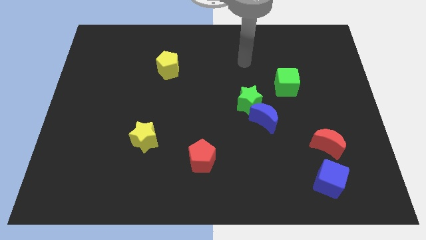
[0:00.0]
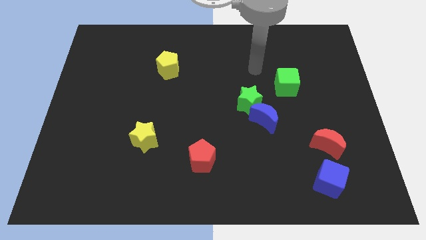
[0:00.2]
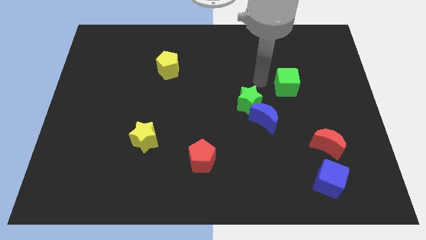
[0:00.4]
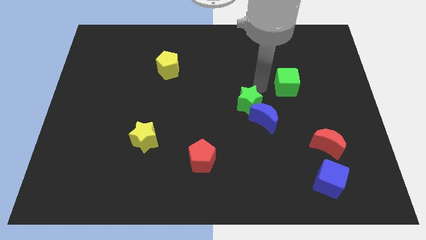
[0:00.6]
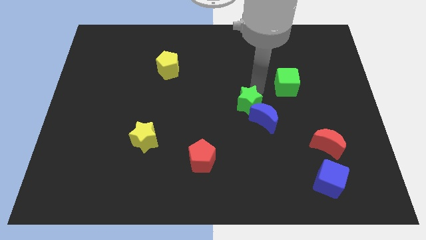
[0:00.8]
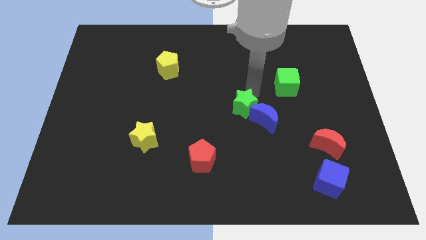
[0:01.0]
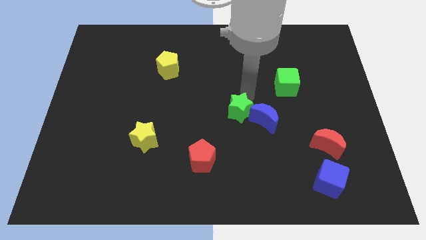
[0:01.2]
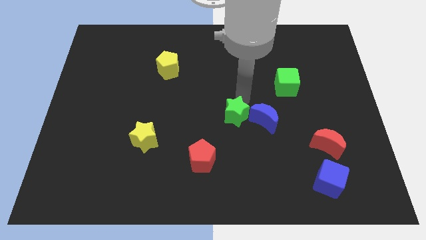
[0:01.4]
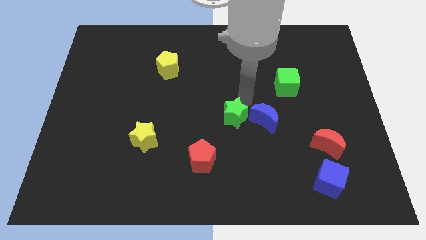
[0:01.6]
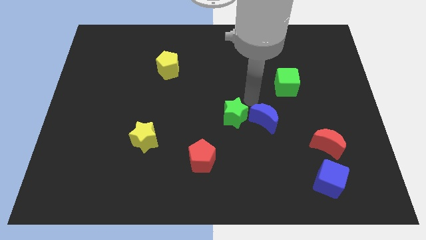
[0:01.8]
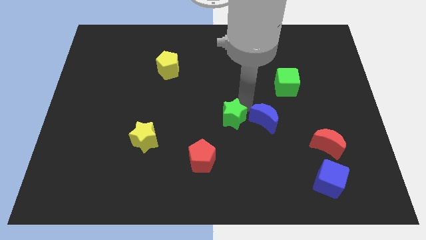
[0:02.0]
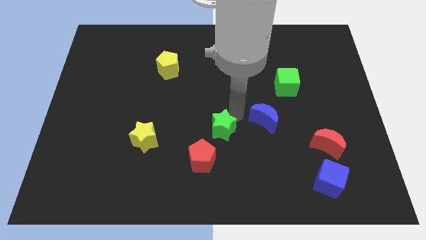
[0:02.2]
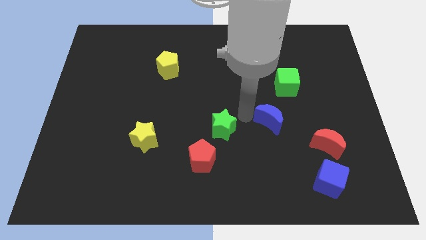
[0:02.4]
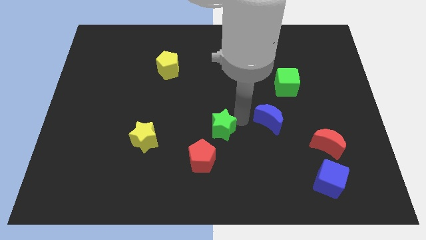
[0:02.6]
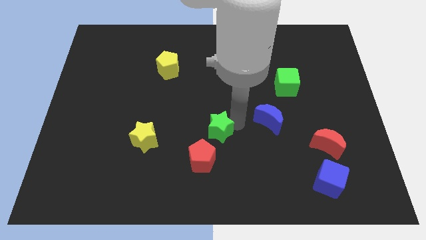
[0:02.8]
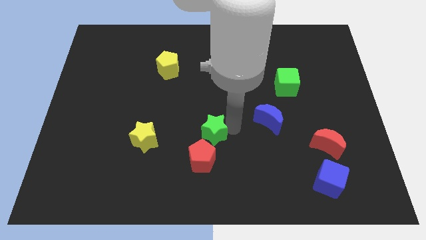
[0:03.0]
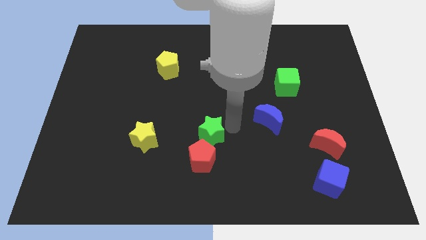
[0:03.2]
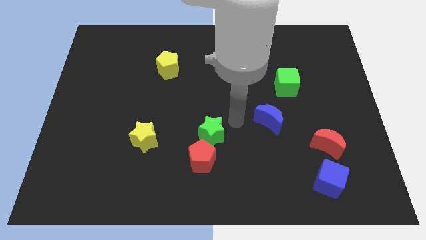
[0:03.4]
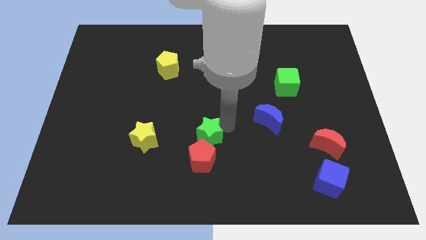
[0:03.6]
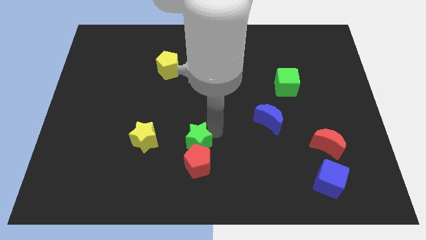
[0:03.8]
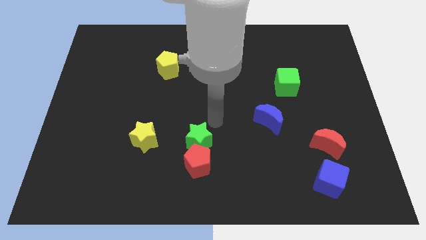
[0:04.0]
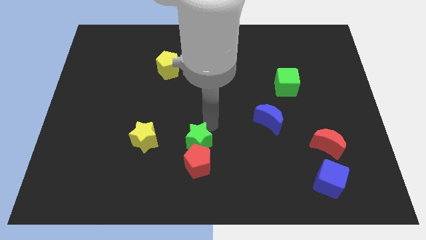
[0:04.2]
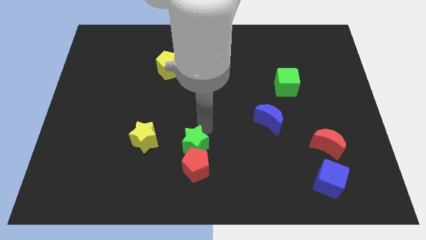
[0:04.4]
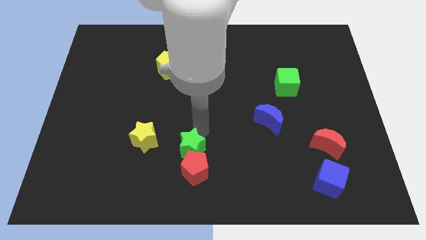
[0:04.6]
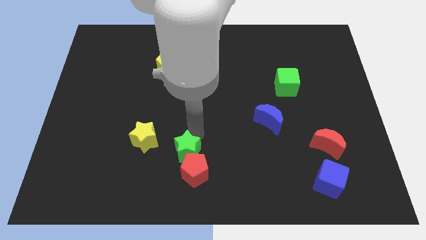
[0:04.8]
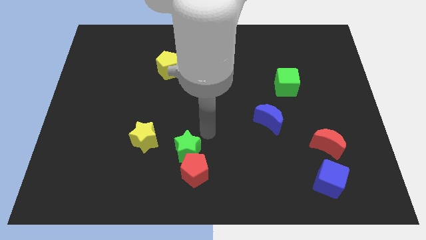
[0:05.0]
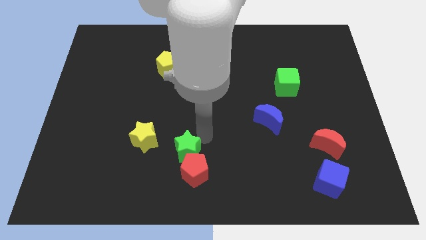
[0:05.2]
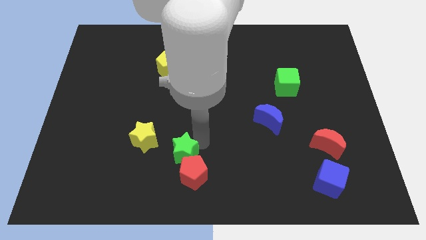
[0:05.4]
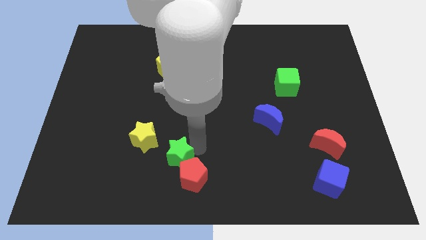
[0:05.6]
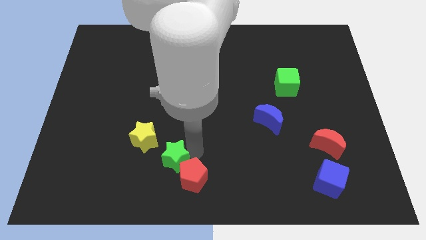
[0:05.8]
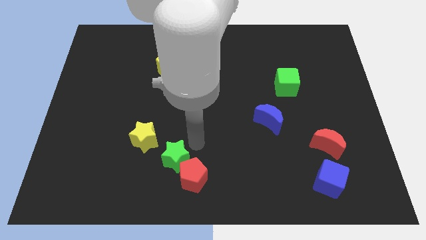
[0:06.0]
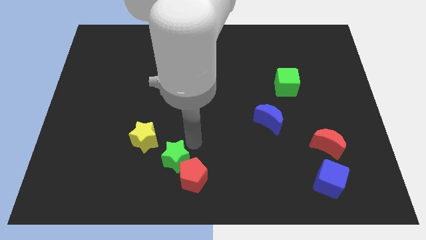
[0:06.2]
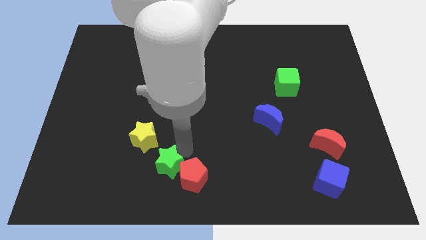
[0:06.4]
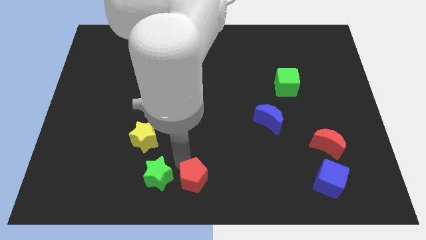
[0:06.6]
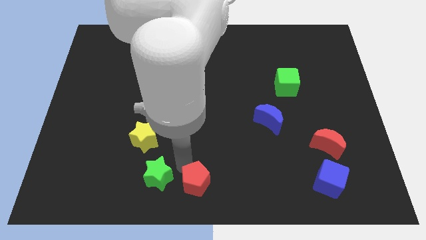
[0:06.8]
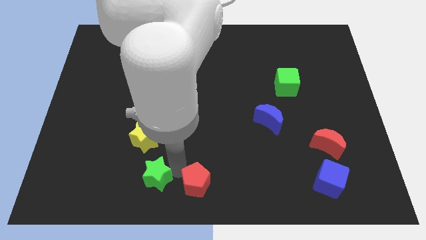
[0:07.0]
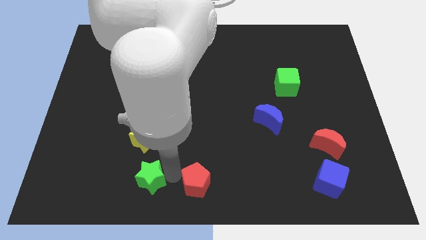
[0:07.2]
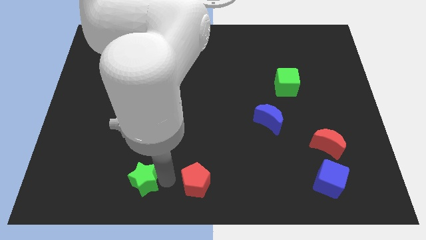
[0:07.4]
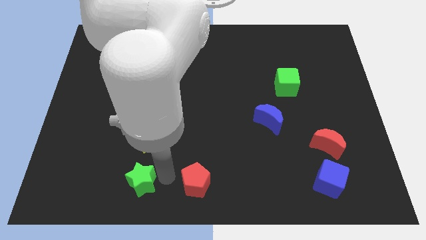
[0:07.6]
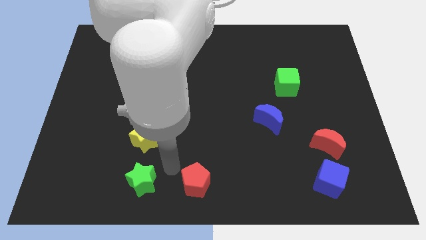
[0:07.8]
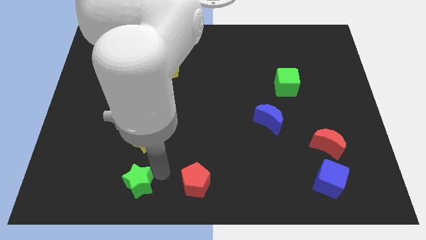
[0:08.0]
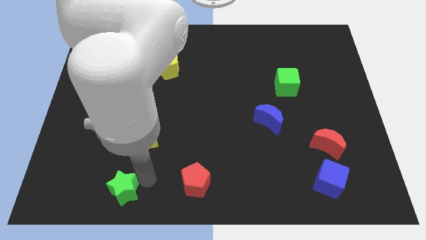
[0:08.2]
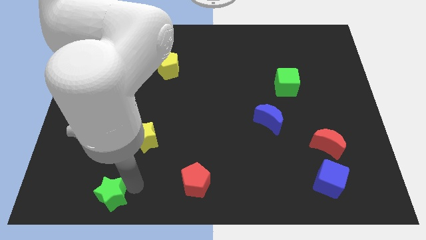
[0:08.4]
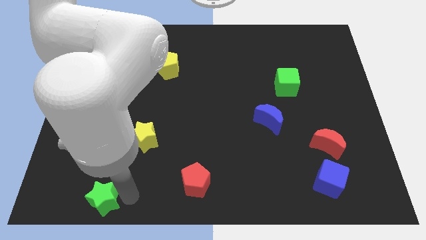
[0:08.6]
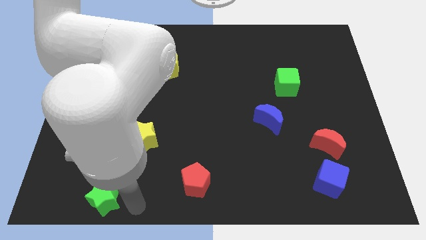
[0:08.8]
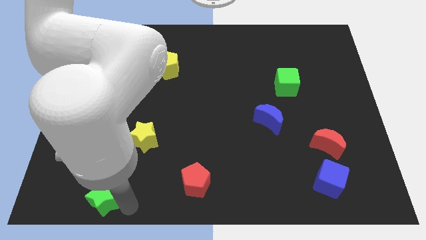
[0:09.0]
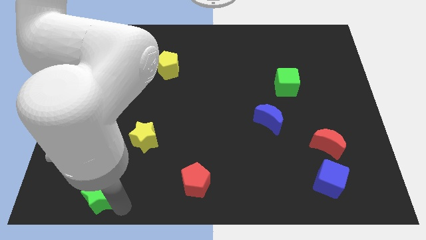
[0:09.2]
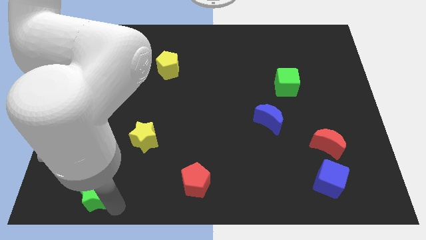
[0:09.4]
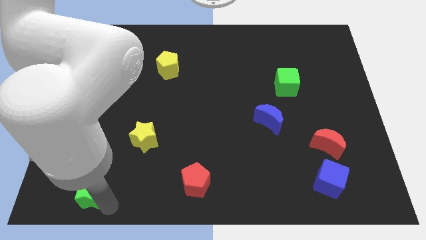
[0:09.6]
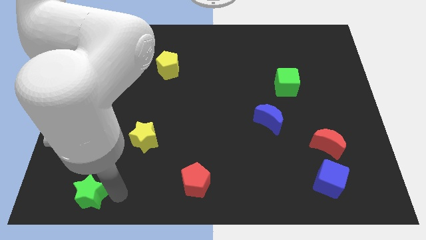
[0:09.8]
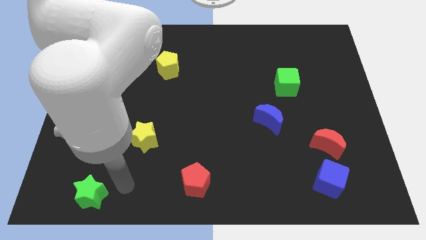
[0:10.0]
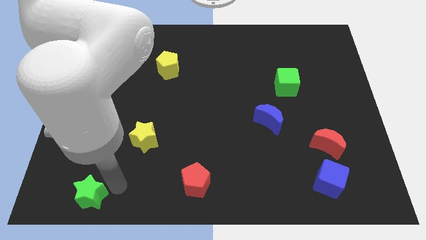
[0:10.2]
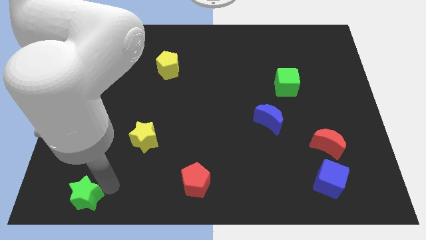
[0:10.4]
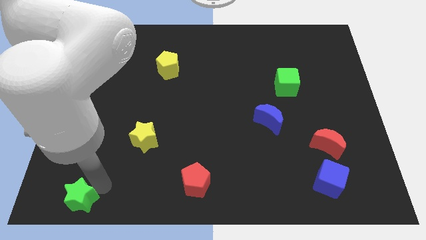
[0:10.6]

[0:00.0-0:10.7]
slide the green star to the bottom left

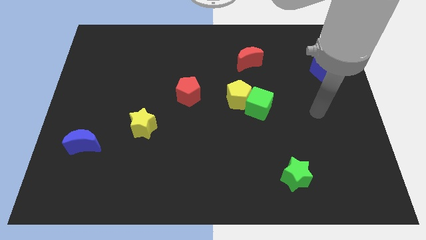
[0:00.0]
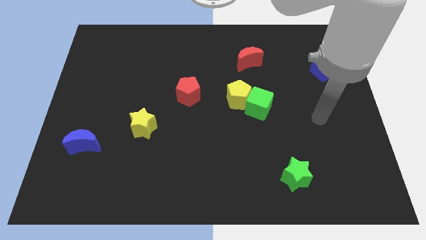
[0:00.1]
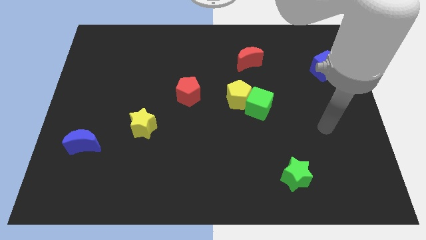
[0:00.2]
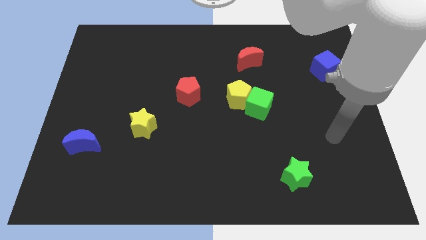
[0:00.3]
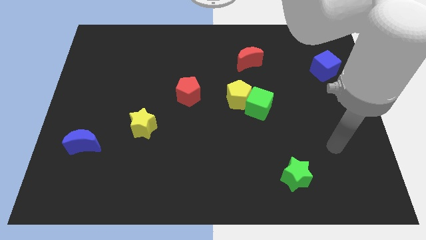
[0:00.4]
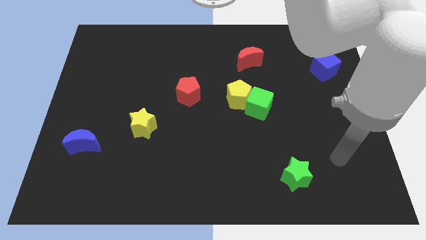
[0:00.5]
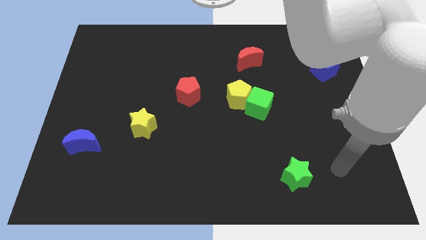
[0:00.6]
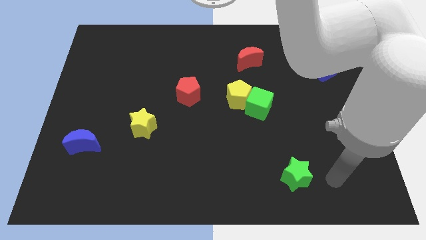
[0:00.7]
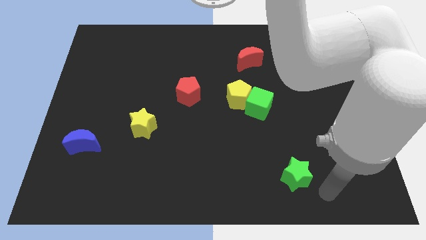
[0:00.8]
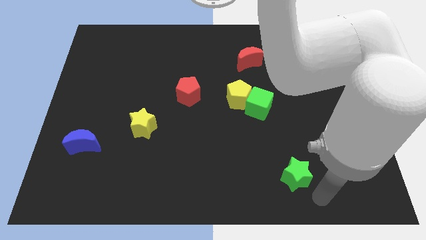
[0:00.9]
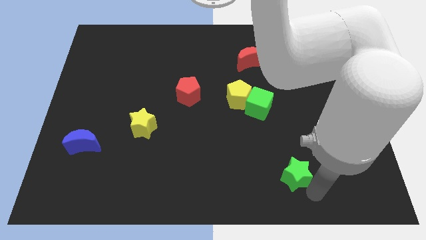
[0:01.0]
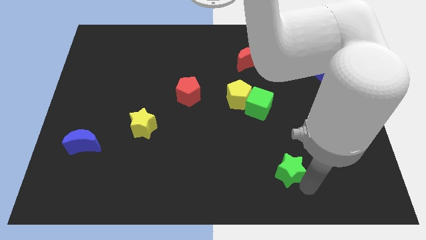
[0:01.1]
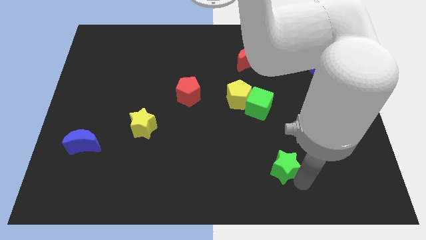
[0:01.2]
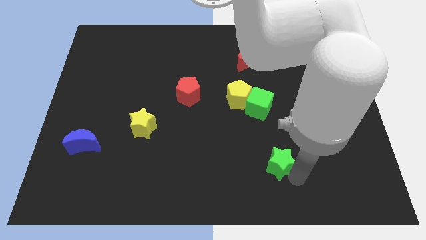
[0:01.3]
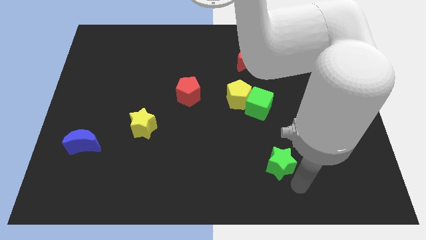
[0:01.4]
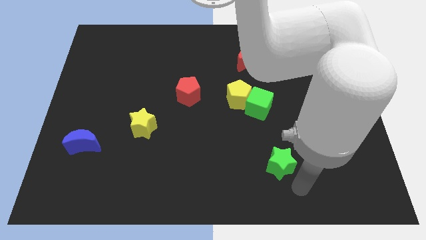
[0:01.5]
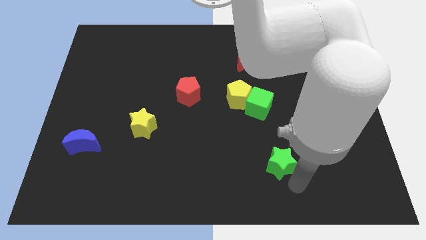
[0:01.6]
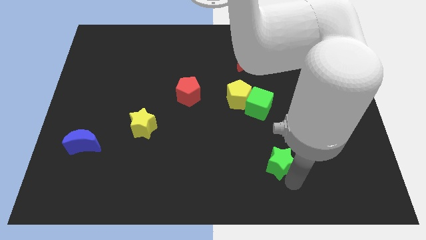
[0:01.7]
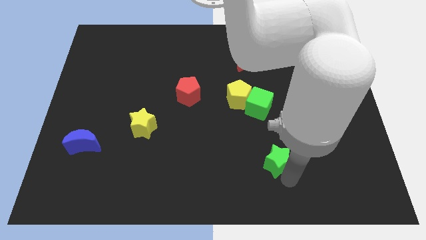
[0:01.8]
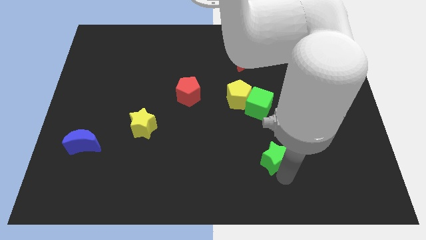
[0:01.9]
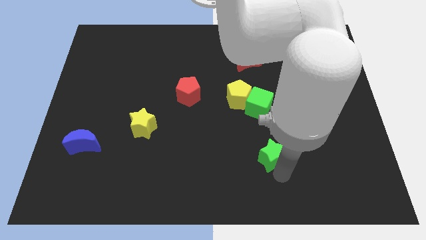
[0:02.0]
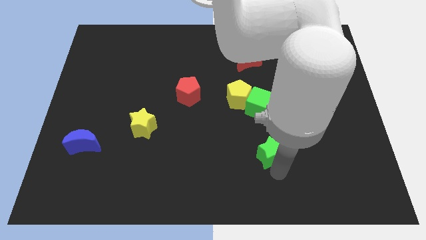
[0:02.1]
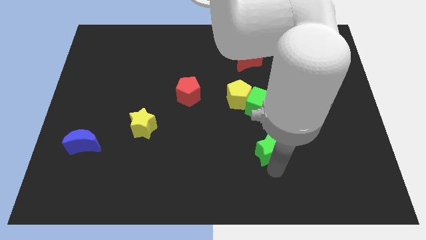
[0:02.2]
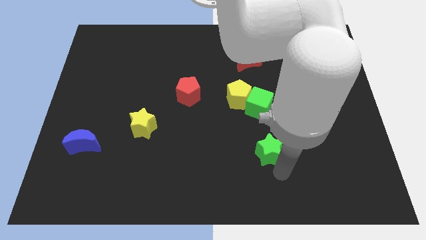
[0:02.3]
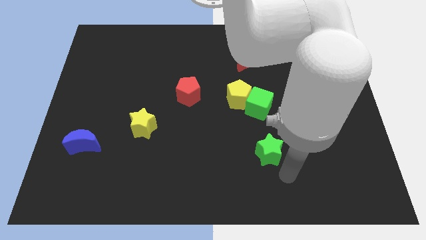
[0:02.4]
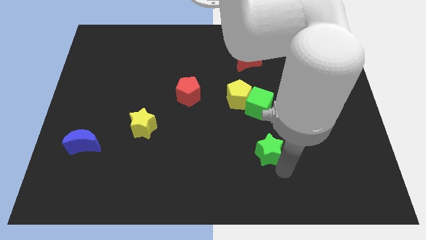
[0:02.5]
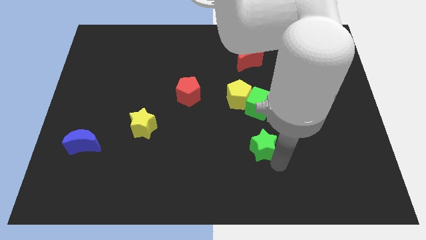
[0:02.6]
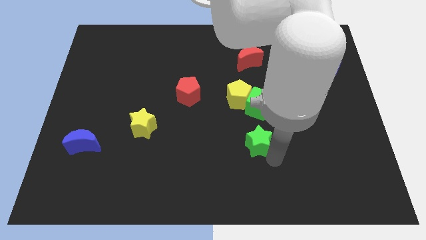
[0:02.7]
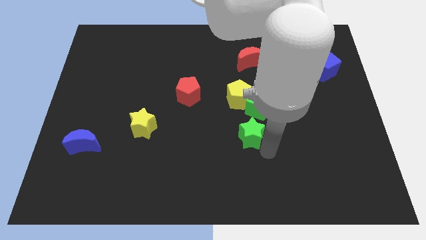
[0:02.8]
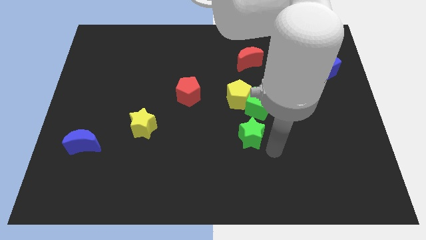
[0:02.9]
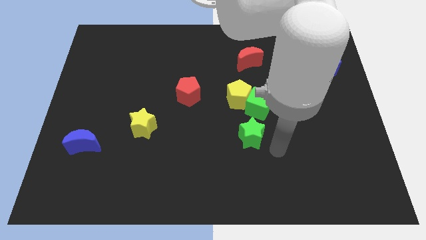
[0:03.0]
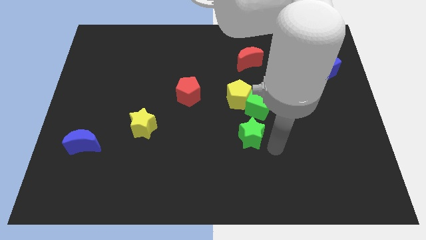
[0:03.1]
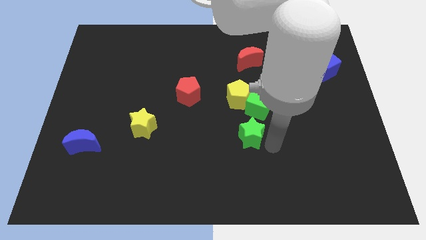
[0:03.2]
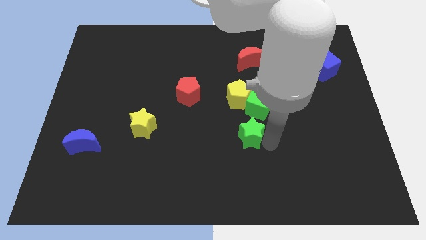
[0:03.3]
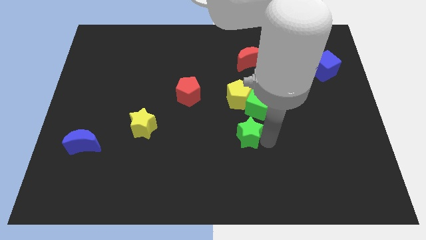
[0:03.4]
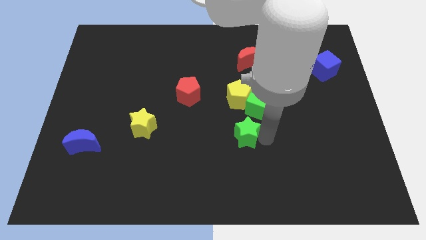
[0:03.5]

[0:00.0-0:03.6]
slide the green star to the center
